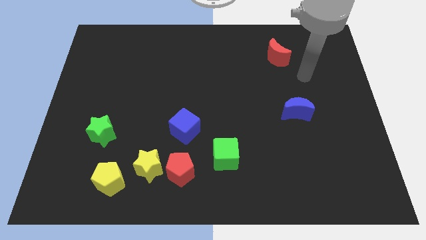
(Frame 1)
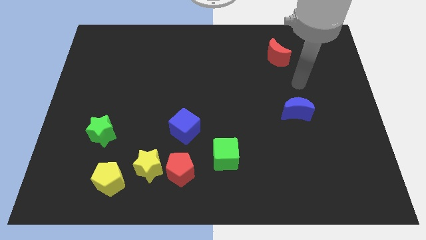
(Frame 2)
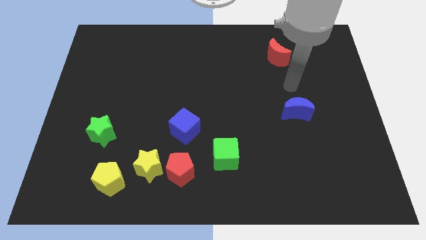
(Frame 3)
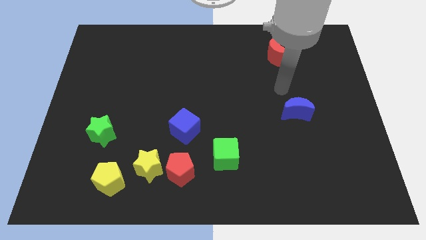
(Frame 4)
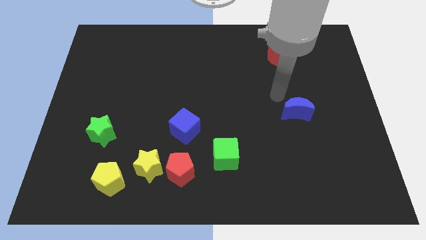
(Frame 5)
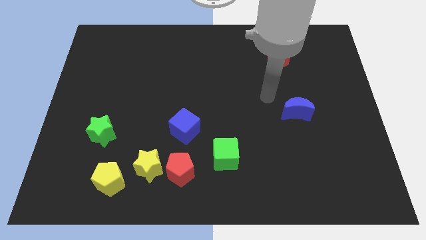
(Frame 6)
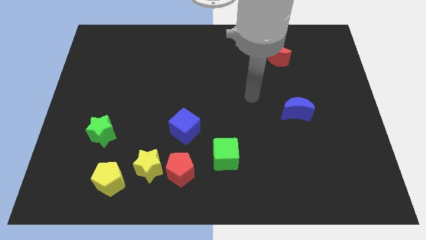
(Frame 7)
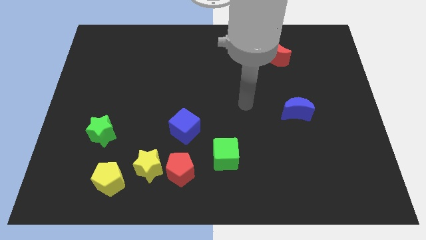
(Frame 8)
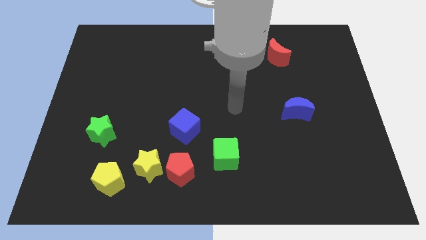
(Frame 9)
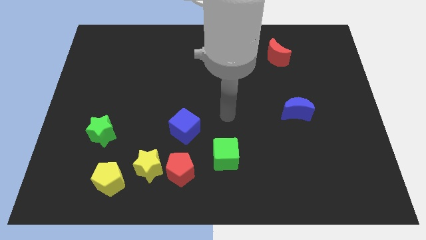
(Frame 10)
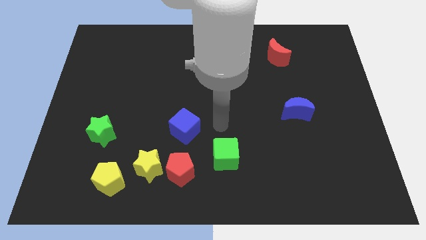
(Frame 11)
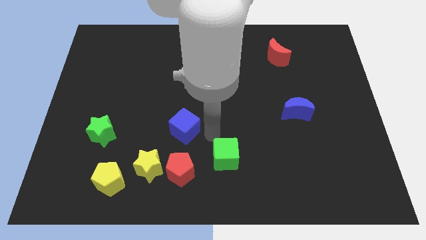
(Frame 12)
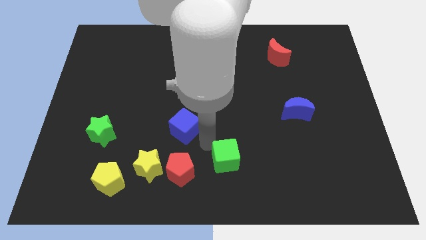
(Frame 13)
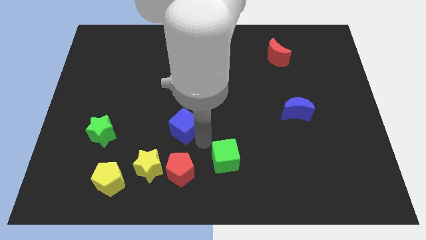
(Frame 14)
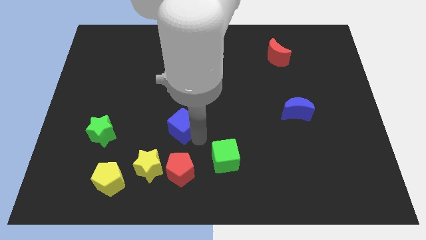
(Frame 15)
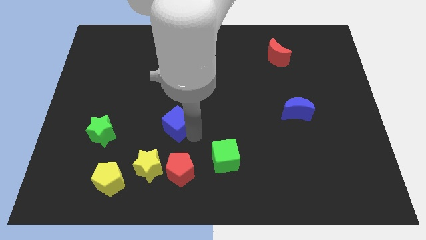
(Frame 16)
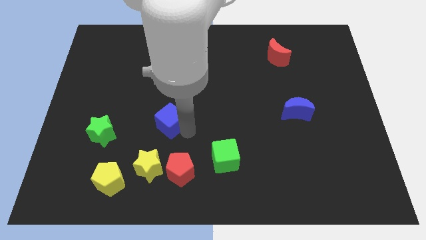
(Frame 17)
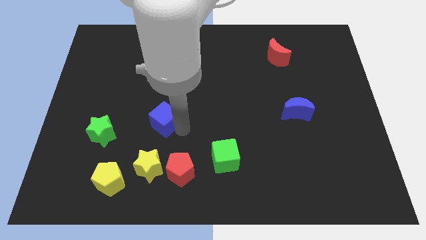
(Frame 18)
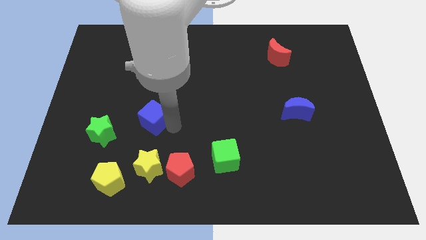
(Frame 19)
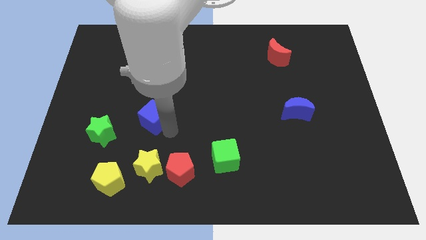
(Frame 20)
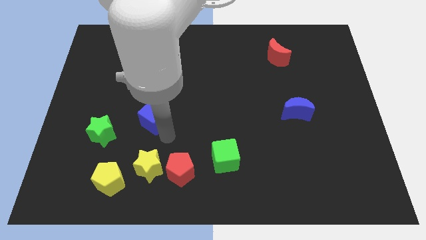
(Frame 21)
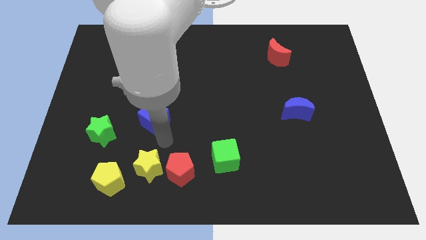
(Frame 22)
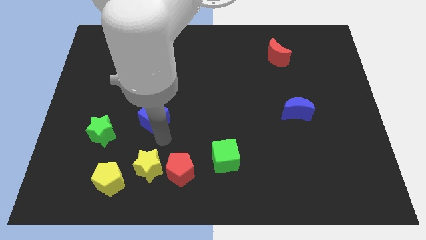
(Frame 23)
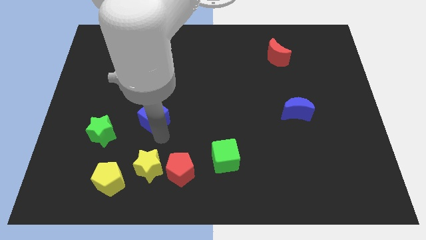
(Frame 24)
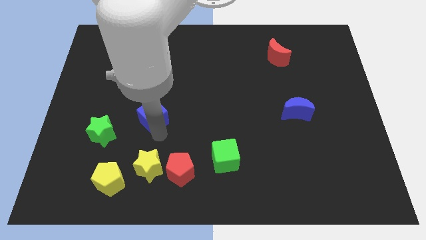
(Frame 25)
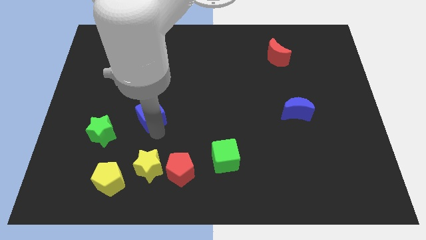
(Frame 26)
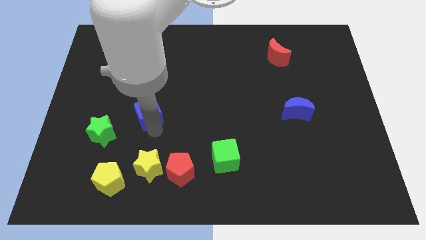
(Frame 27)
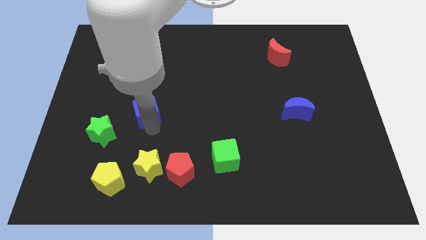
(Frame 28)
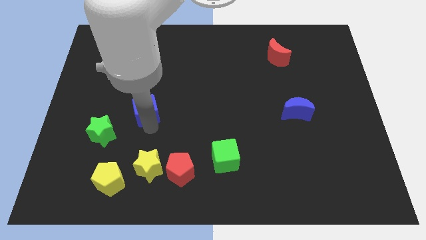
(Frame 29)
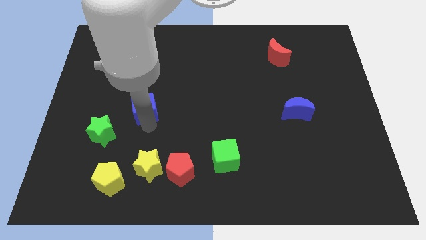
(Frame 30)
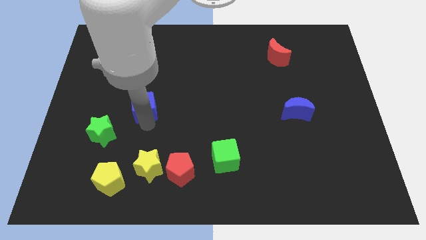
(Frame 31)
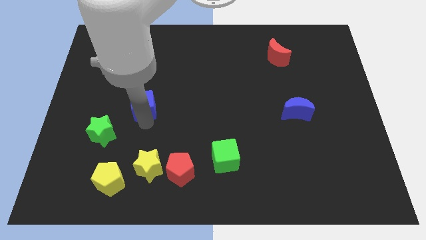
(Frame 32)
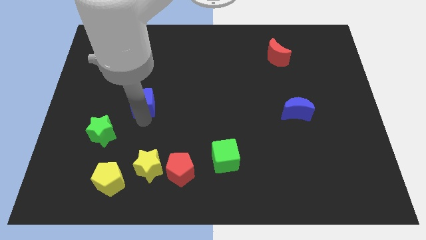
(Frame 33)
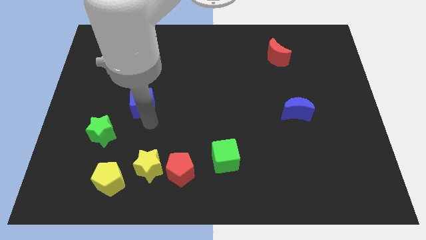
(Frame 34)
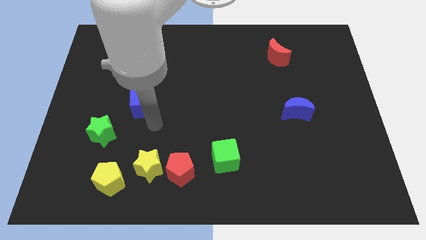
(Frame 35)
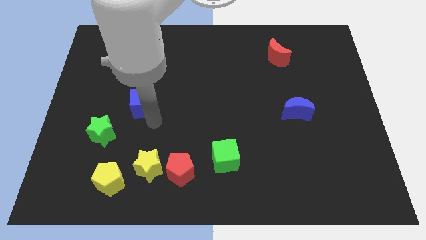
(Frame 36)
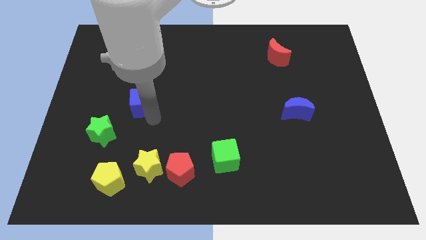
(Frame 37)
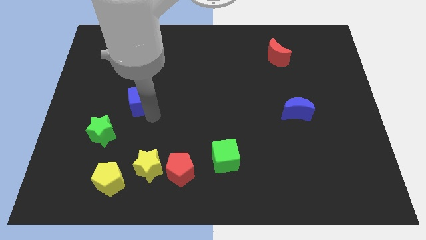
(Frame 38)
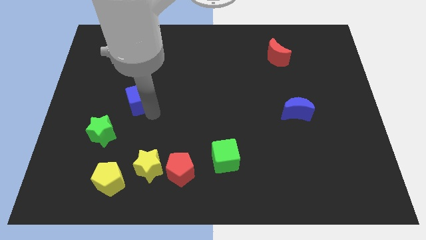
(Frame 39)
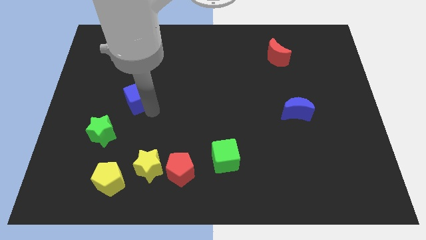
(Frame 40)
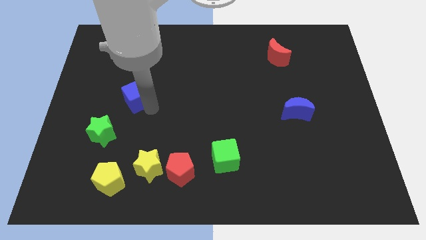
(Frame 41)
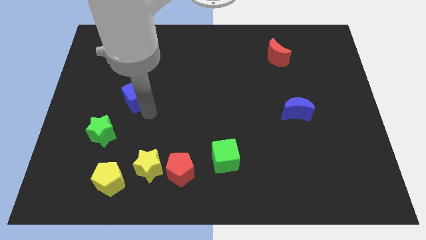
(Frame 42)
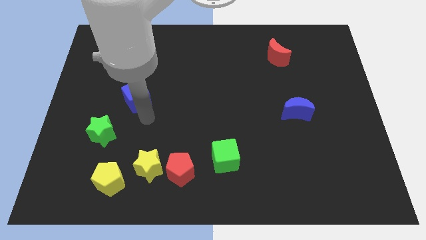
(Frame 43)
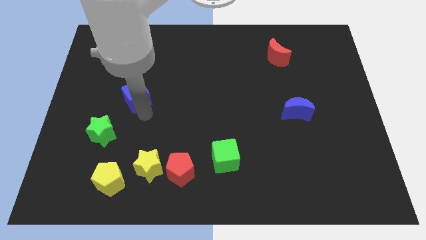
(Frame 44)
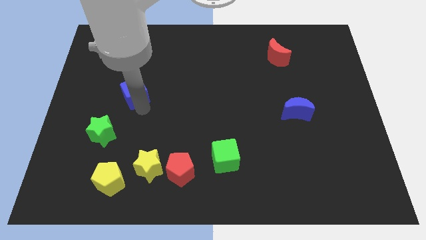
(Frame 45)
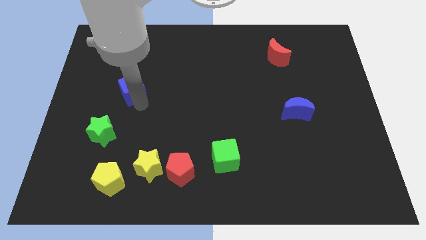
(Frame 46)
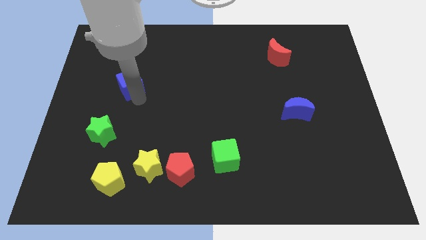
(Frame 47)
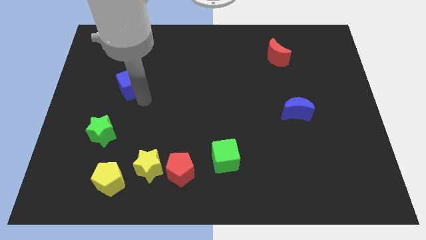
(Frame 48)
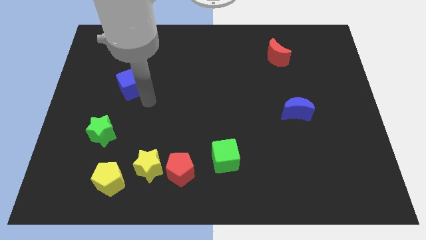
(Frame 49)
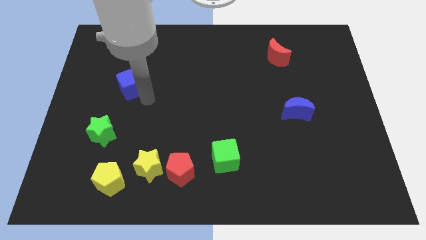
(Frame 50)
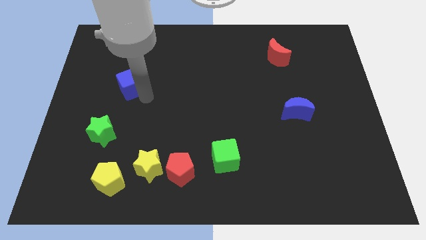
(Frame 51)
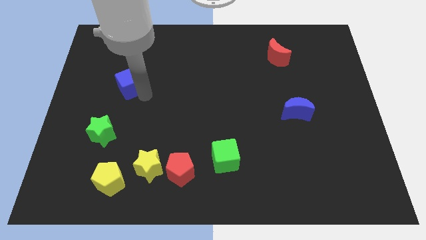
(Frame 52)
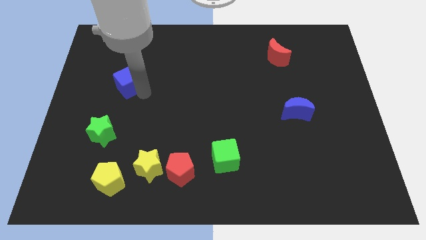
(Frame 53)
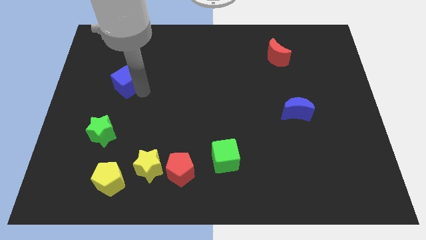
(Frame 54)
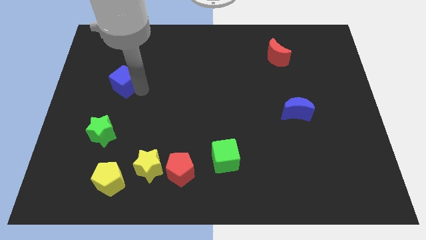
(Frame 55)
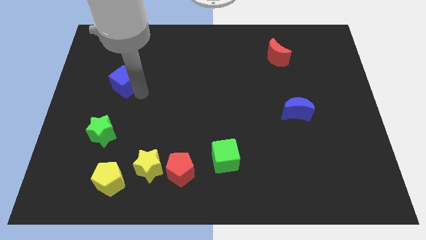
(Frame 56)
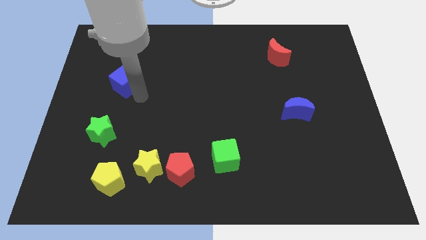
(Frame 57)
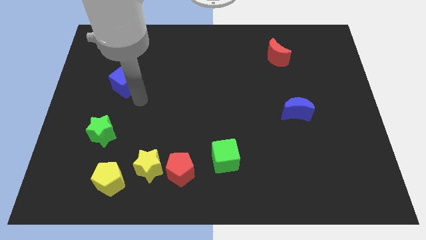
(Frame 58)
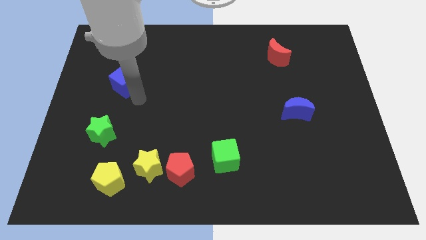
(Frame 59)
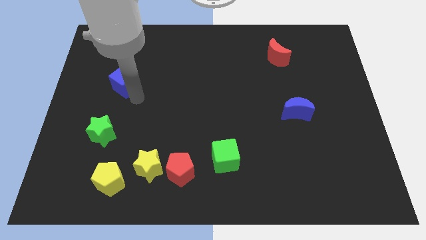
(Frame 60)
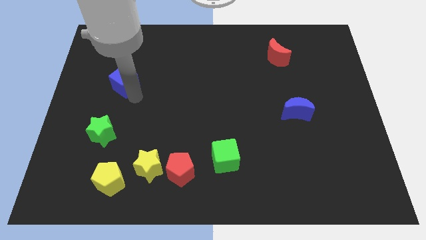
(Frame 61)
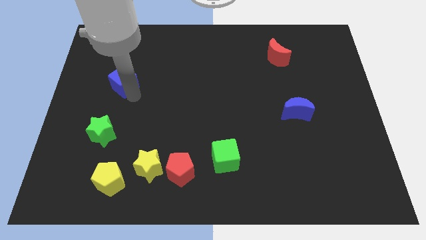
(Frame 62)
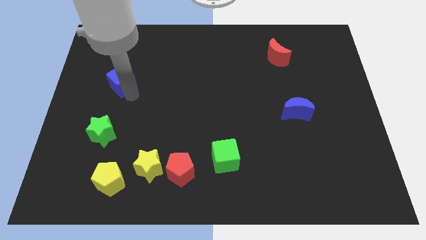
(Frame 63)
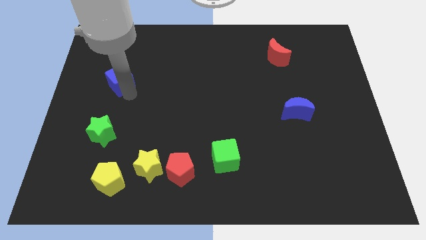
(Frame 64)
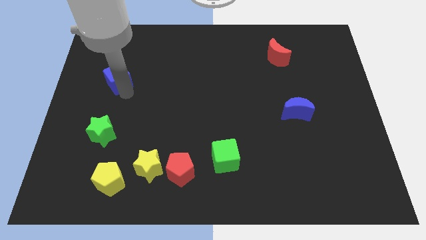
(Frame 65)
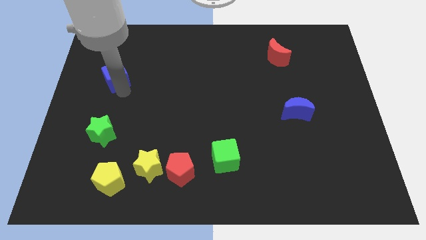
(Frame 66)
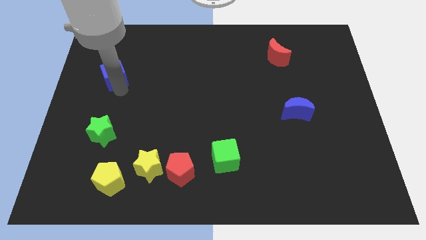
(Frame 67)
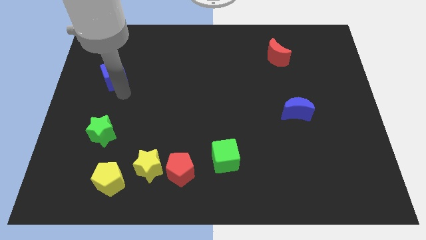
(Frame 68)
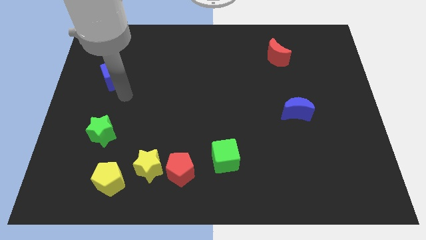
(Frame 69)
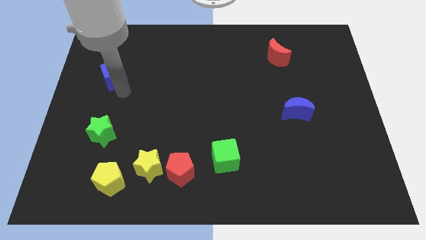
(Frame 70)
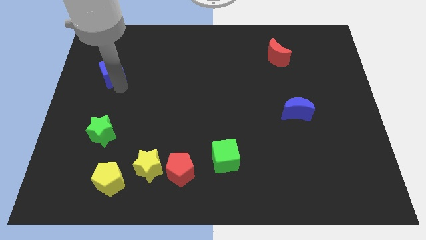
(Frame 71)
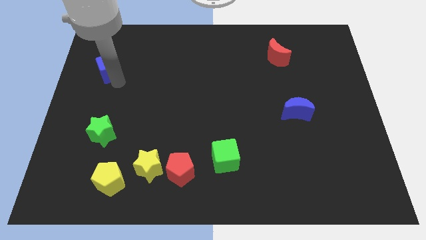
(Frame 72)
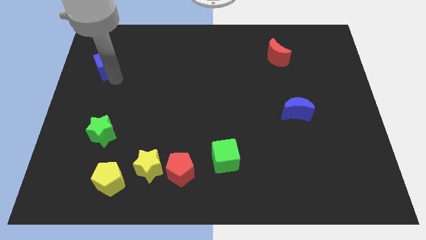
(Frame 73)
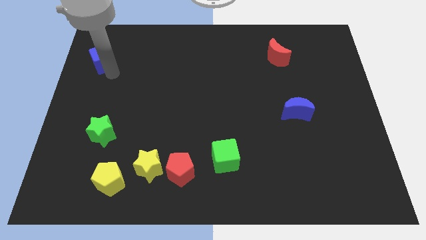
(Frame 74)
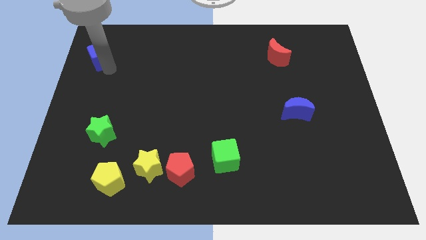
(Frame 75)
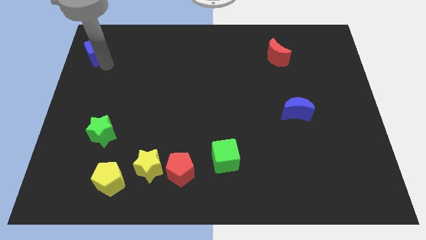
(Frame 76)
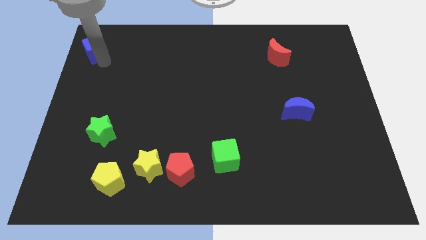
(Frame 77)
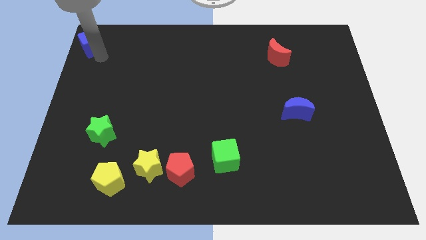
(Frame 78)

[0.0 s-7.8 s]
slide the blue cube to the upper left corner
